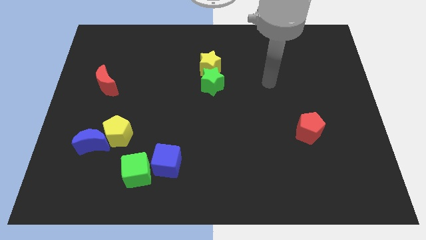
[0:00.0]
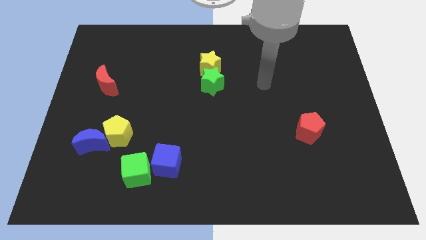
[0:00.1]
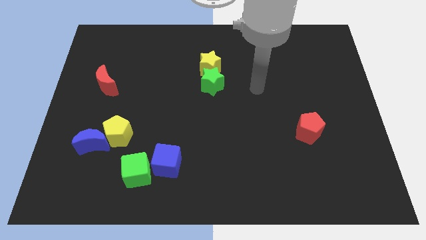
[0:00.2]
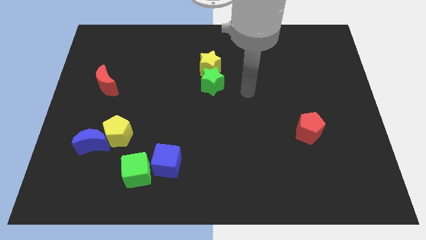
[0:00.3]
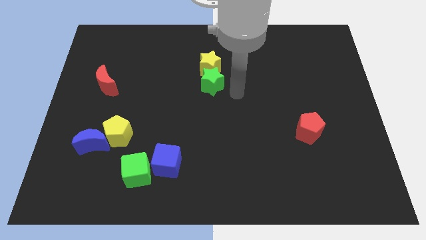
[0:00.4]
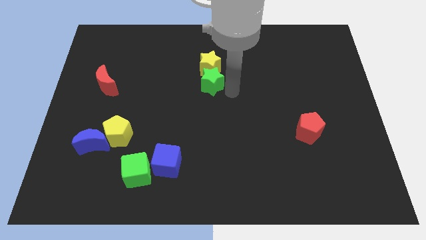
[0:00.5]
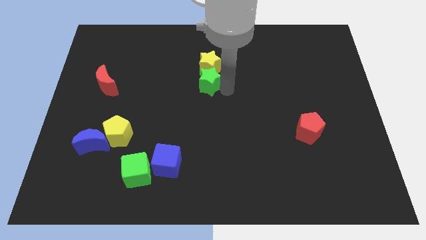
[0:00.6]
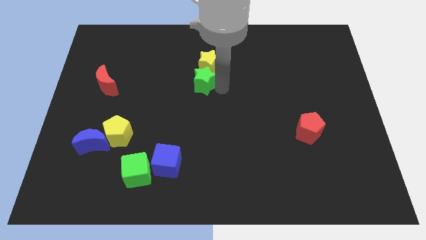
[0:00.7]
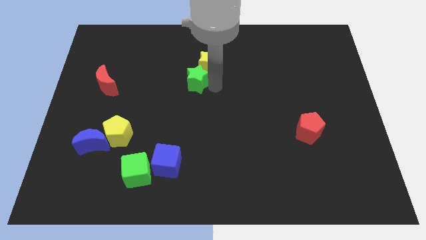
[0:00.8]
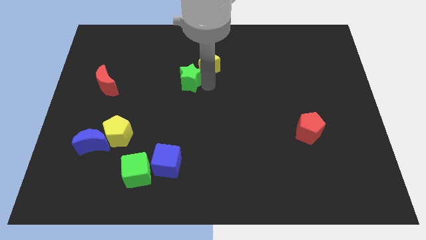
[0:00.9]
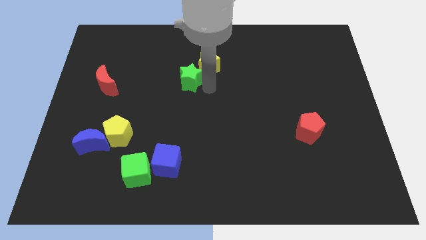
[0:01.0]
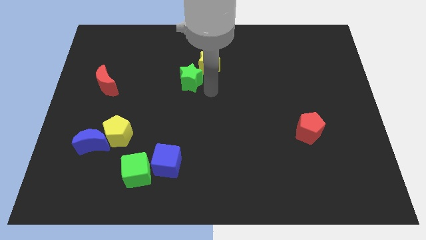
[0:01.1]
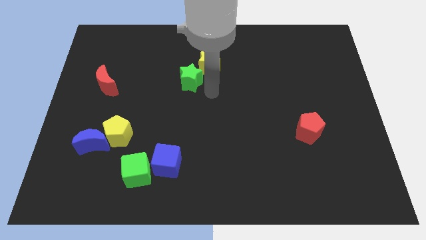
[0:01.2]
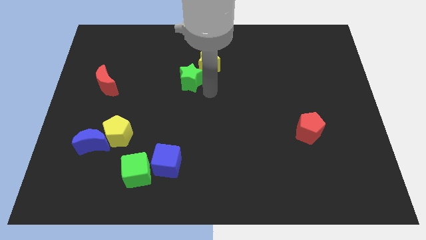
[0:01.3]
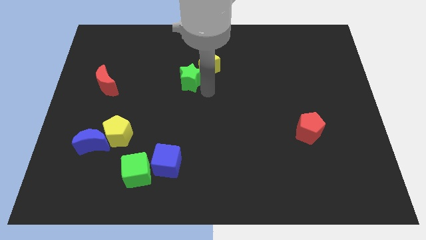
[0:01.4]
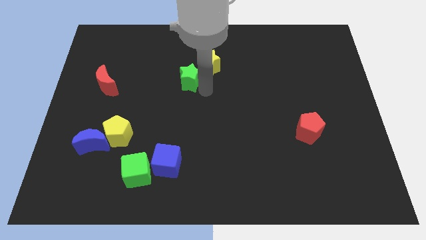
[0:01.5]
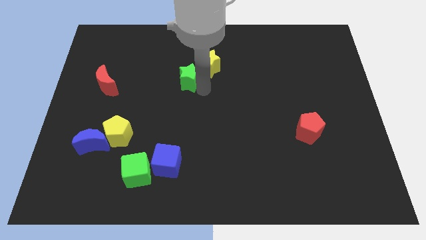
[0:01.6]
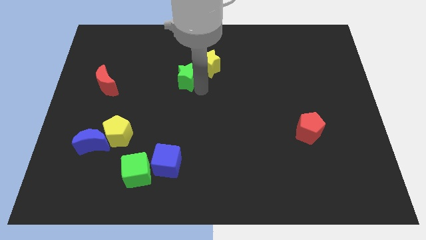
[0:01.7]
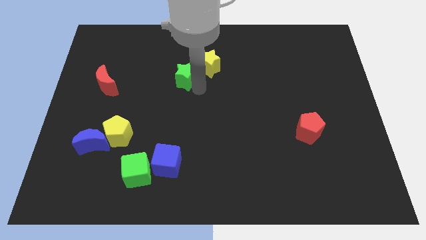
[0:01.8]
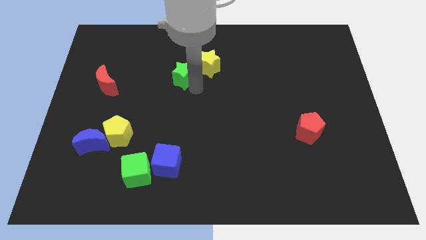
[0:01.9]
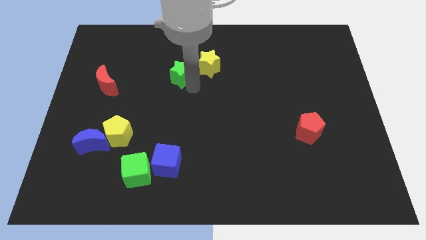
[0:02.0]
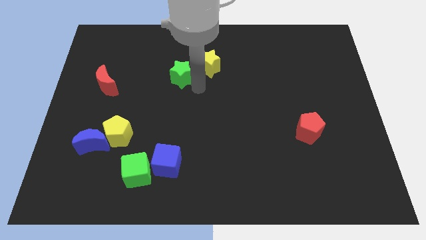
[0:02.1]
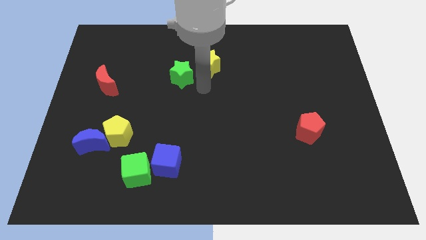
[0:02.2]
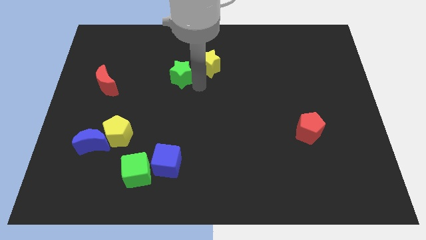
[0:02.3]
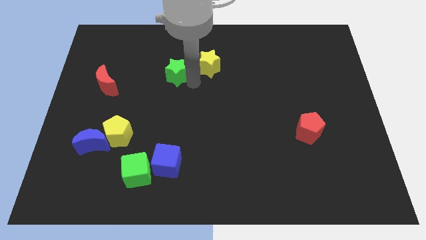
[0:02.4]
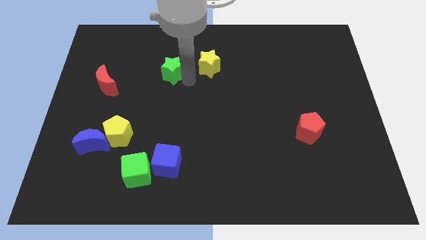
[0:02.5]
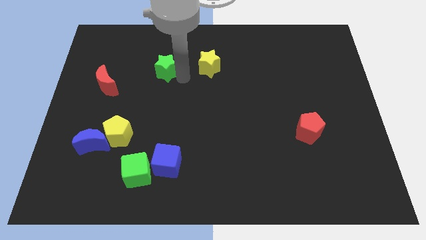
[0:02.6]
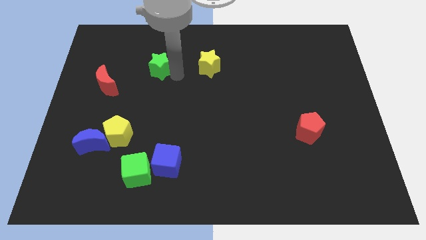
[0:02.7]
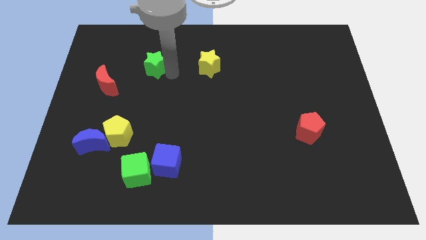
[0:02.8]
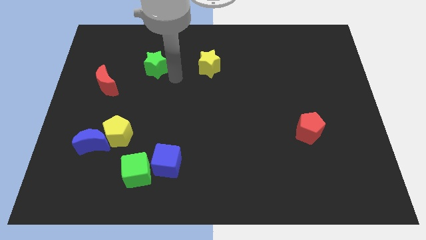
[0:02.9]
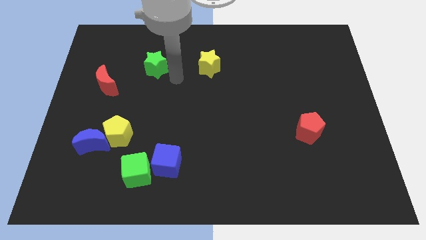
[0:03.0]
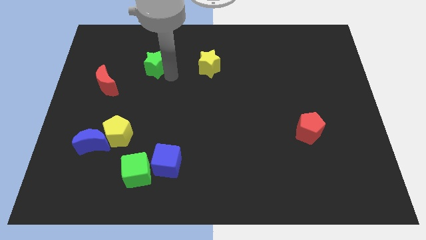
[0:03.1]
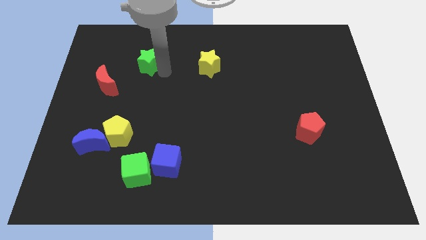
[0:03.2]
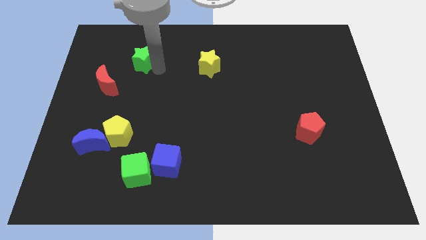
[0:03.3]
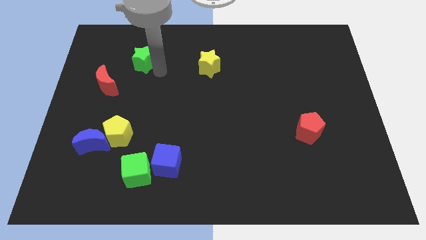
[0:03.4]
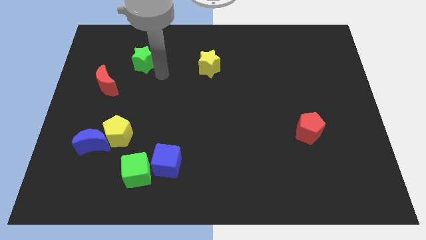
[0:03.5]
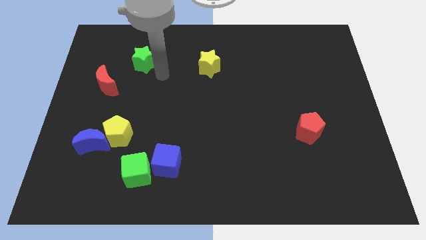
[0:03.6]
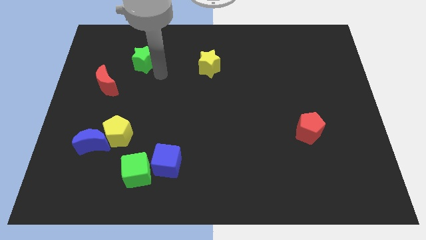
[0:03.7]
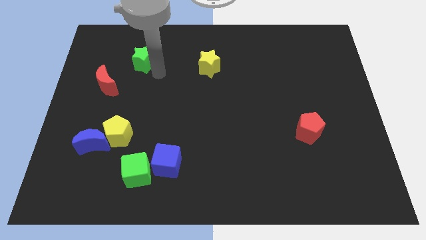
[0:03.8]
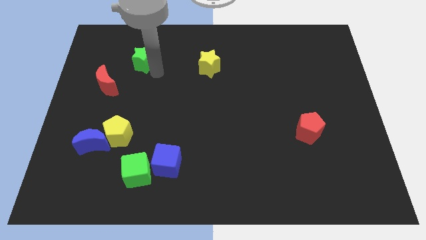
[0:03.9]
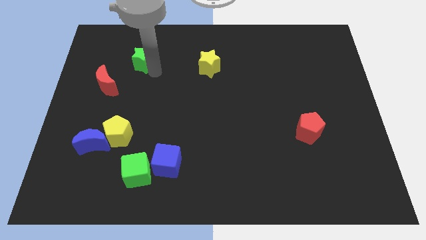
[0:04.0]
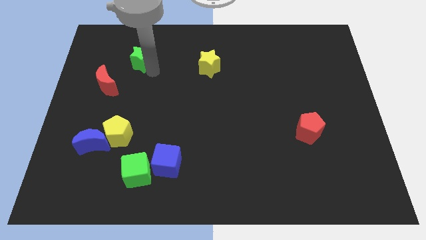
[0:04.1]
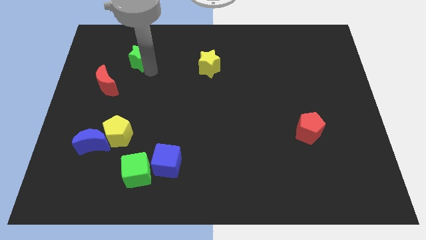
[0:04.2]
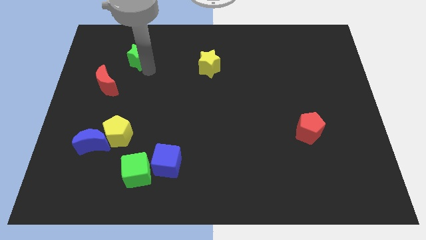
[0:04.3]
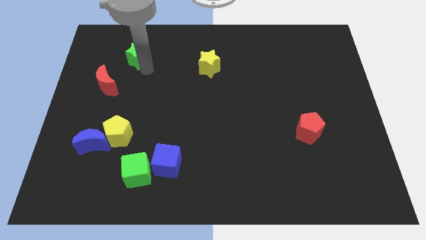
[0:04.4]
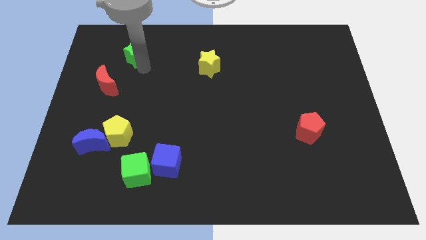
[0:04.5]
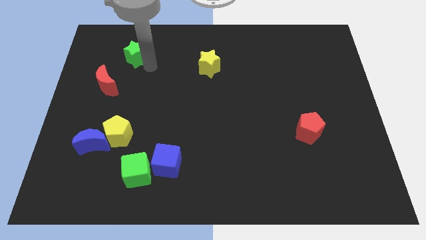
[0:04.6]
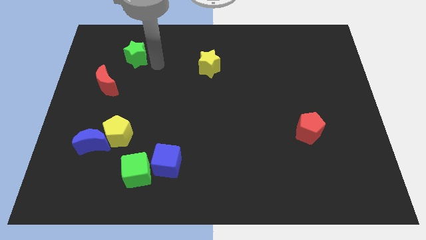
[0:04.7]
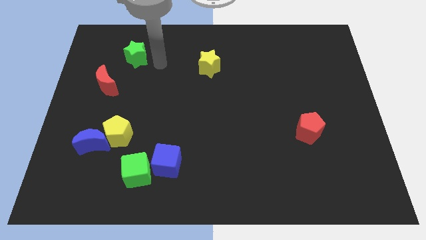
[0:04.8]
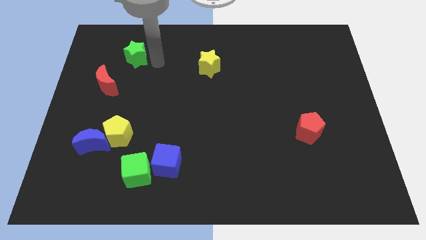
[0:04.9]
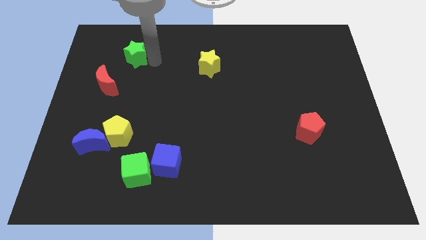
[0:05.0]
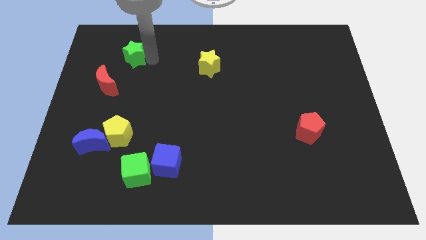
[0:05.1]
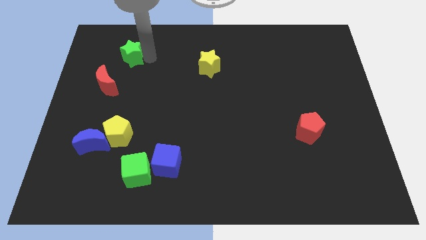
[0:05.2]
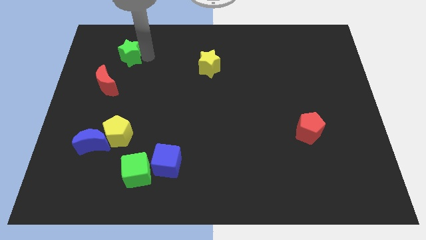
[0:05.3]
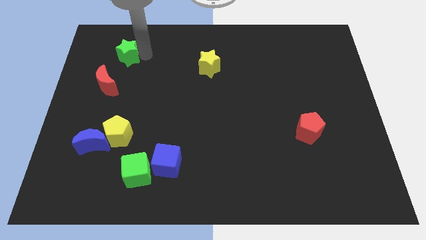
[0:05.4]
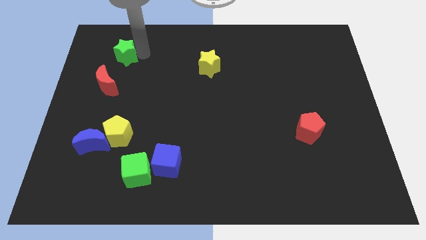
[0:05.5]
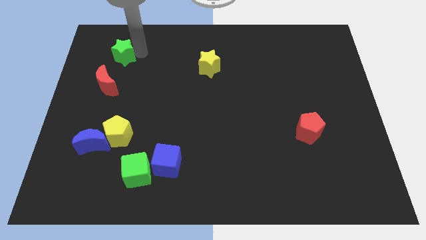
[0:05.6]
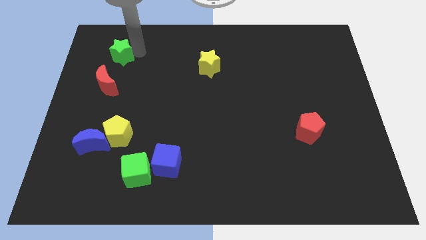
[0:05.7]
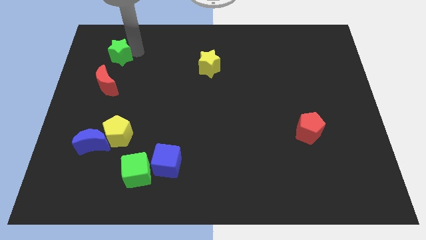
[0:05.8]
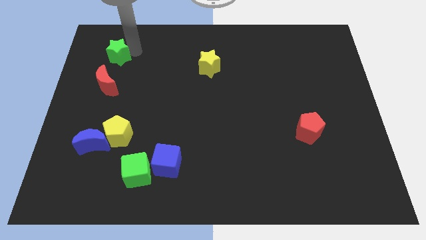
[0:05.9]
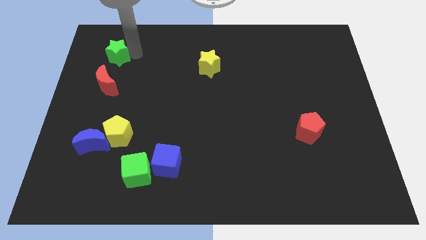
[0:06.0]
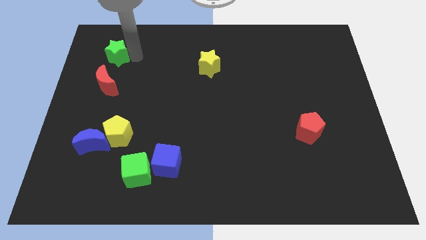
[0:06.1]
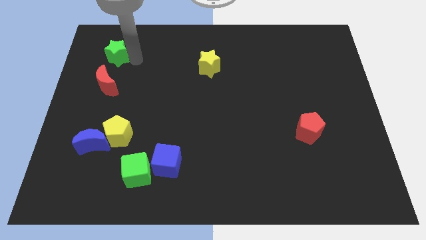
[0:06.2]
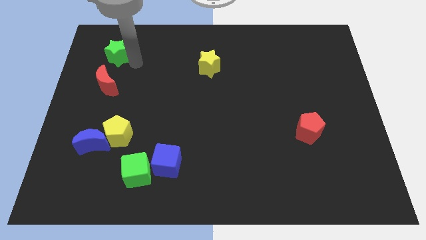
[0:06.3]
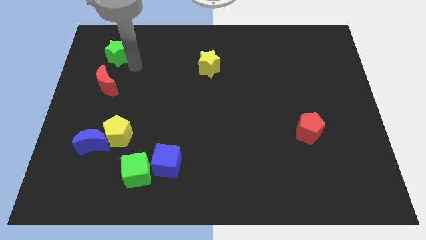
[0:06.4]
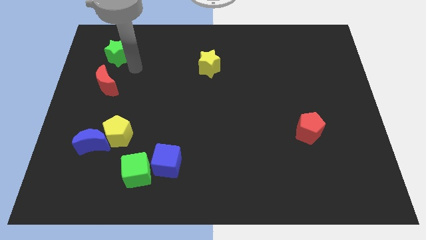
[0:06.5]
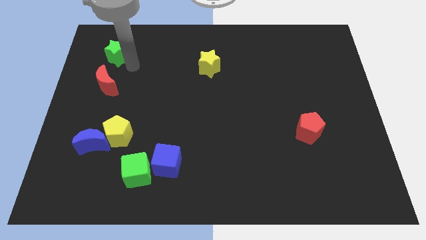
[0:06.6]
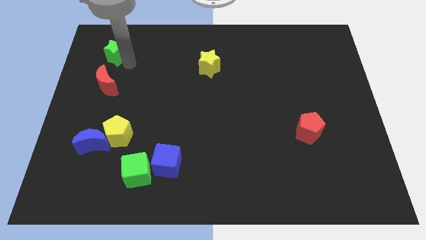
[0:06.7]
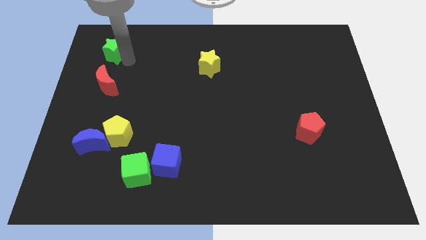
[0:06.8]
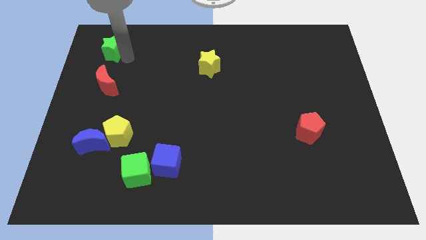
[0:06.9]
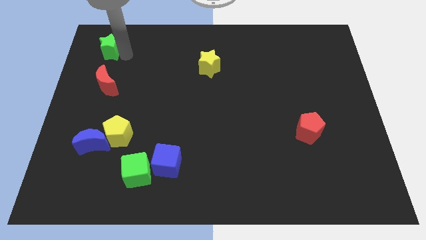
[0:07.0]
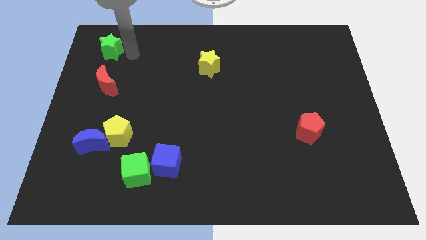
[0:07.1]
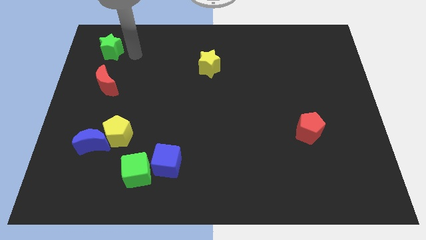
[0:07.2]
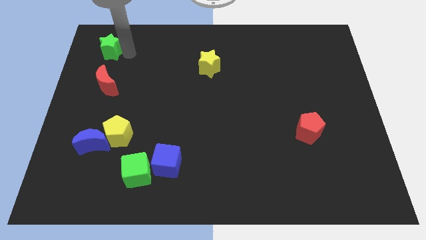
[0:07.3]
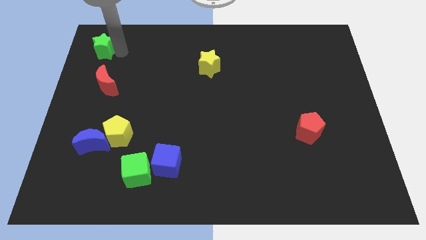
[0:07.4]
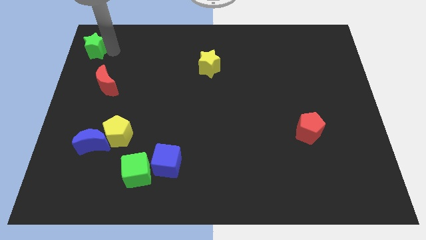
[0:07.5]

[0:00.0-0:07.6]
move the green star to the top left of the board
